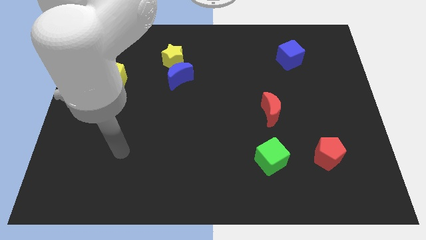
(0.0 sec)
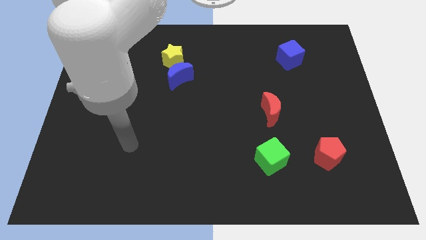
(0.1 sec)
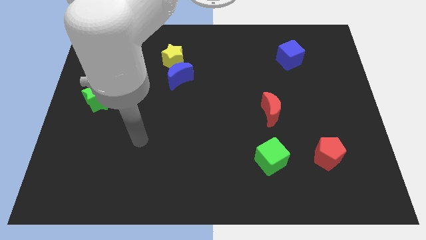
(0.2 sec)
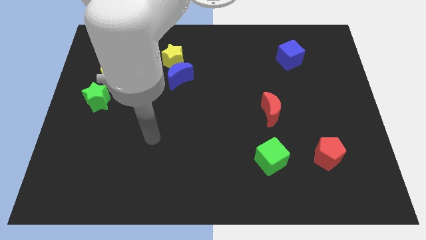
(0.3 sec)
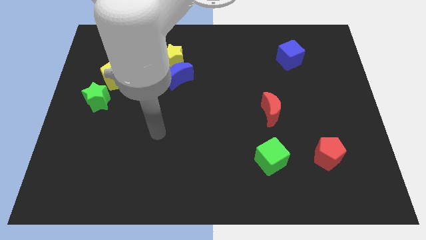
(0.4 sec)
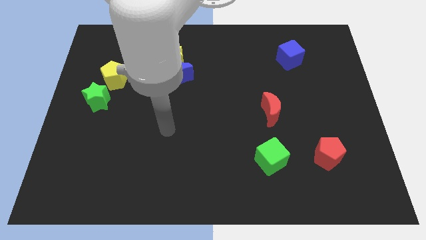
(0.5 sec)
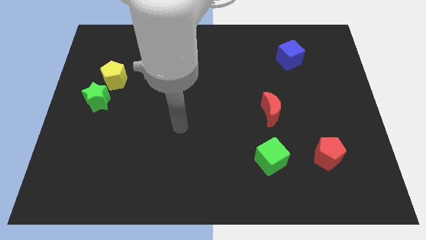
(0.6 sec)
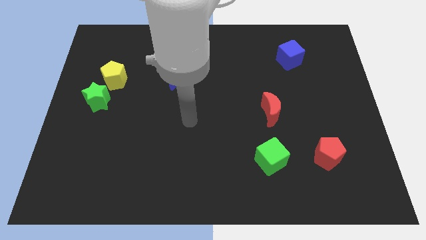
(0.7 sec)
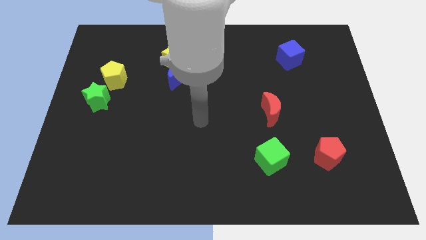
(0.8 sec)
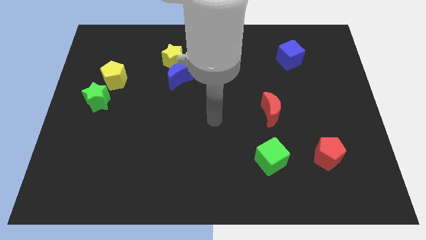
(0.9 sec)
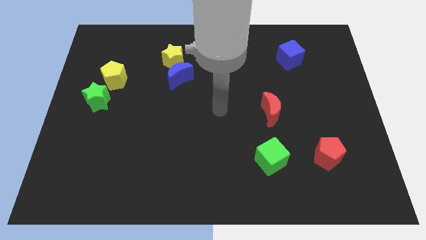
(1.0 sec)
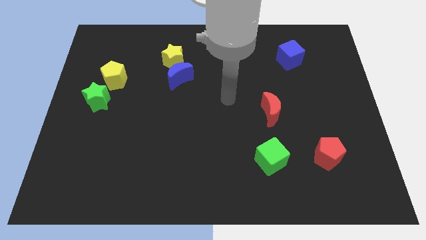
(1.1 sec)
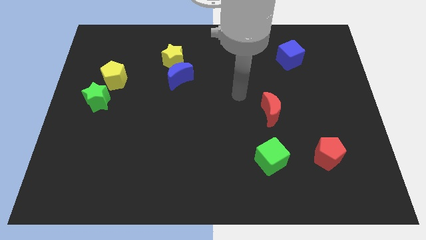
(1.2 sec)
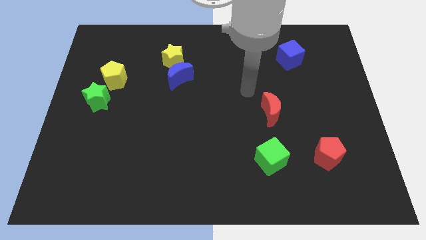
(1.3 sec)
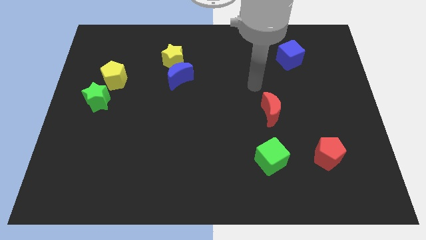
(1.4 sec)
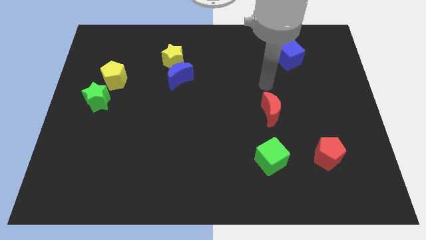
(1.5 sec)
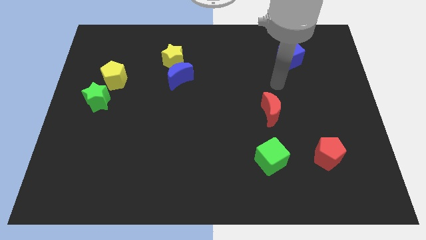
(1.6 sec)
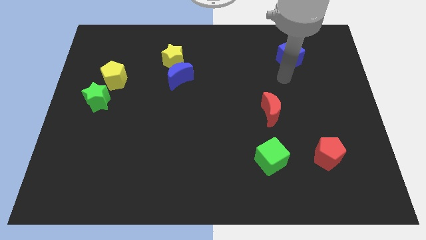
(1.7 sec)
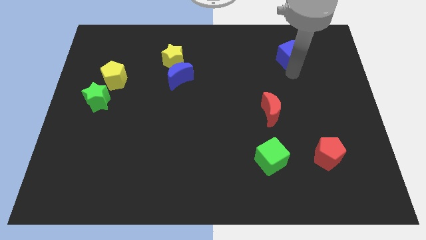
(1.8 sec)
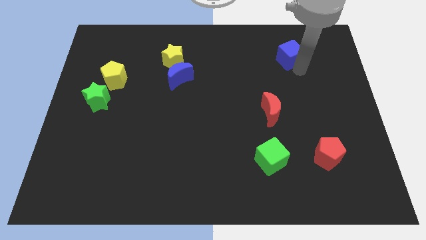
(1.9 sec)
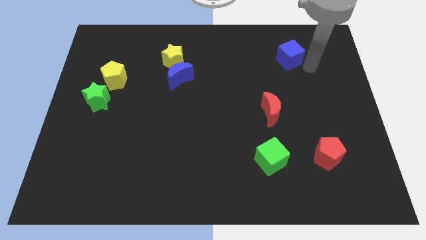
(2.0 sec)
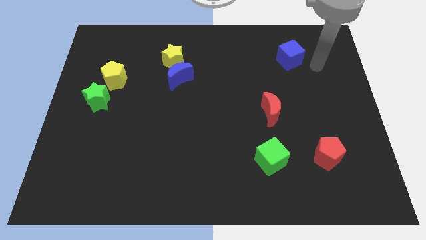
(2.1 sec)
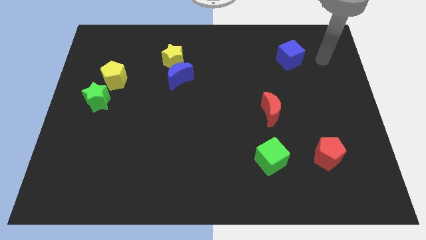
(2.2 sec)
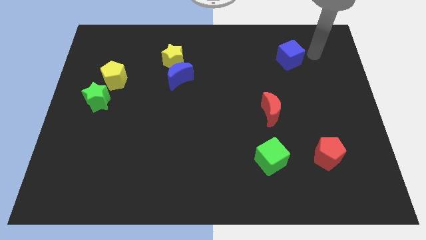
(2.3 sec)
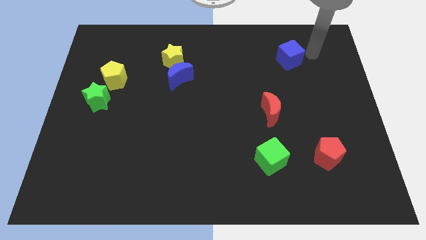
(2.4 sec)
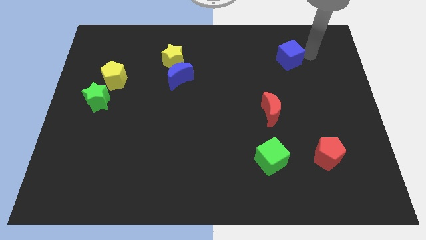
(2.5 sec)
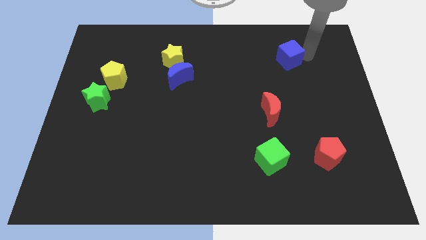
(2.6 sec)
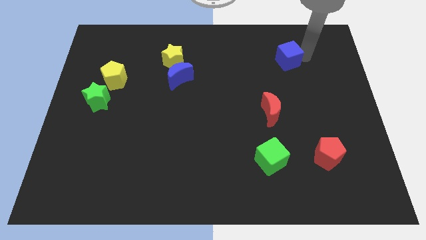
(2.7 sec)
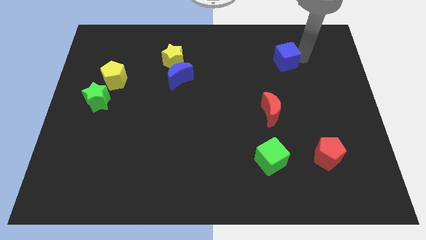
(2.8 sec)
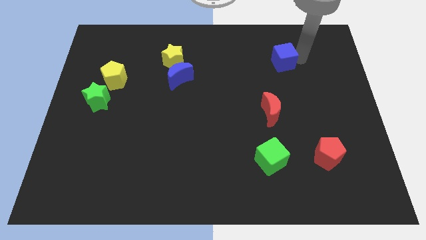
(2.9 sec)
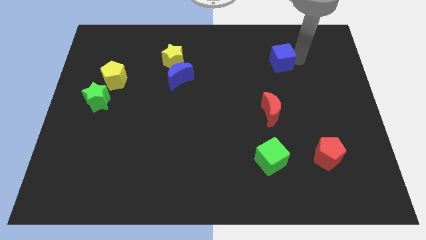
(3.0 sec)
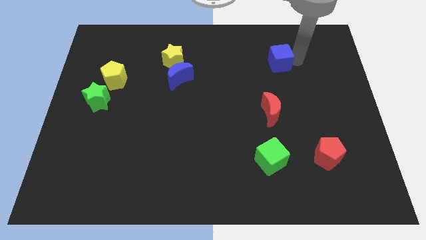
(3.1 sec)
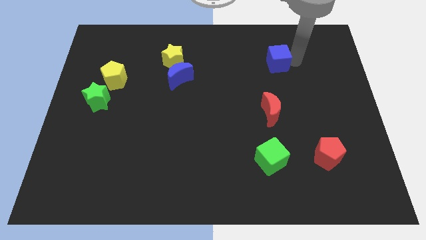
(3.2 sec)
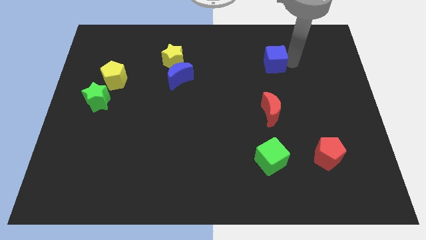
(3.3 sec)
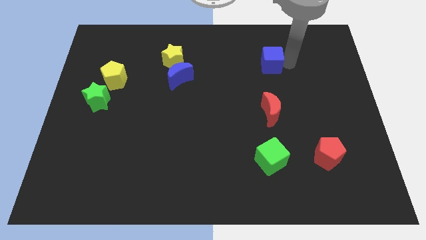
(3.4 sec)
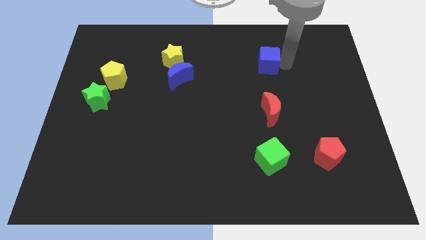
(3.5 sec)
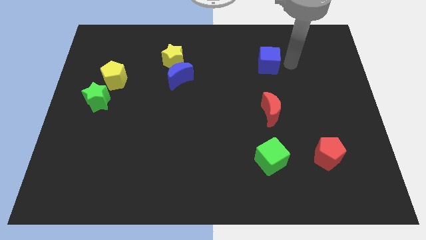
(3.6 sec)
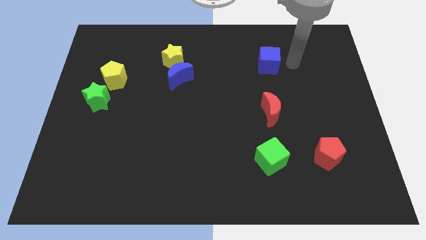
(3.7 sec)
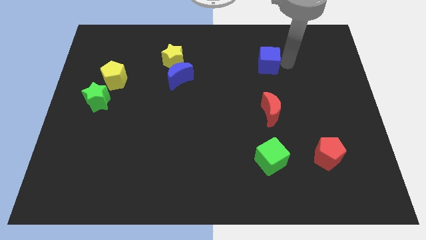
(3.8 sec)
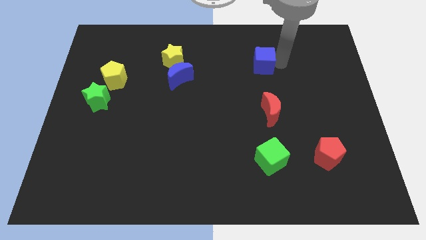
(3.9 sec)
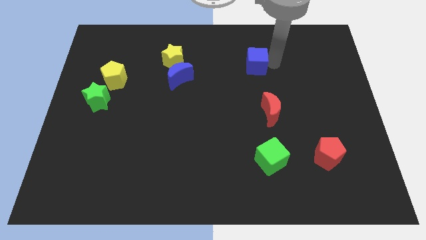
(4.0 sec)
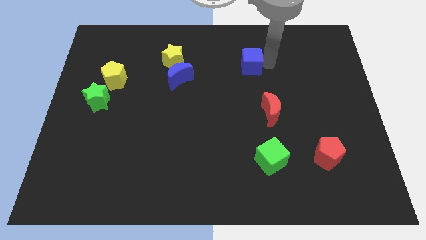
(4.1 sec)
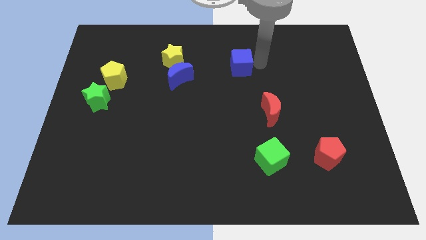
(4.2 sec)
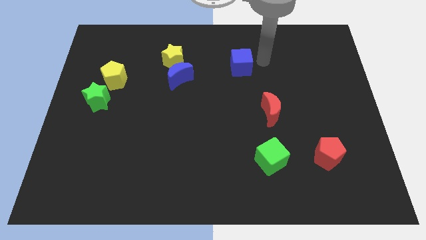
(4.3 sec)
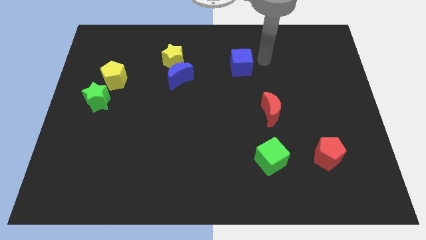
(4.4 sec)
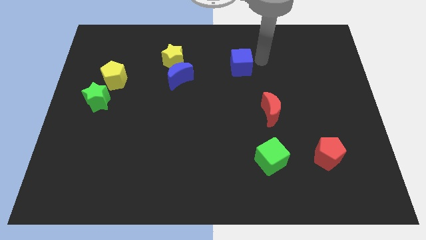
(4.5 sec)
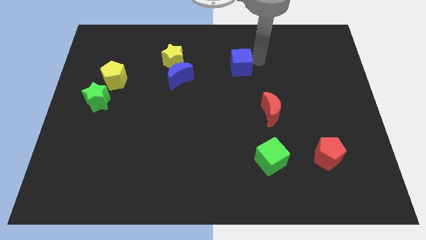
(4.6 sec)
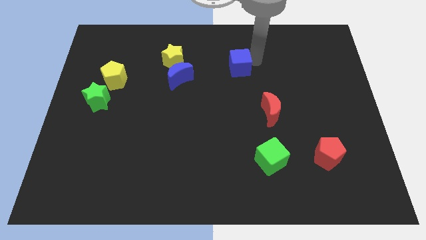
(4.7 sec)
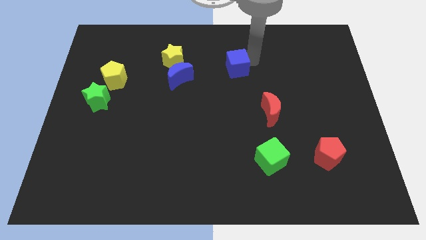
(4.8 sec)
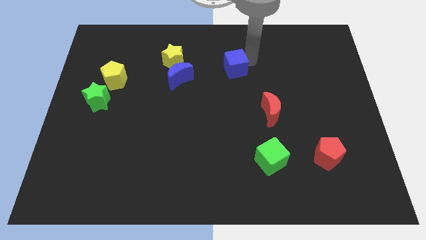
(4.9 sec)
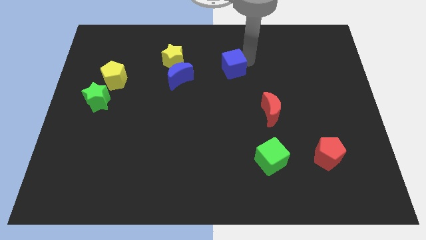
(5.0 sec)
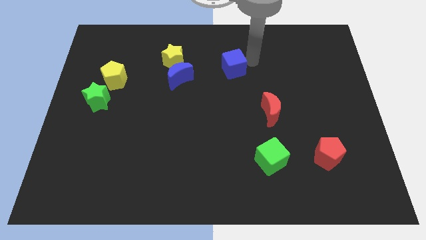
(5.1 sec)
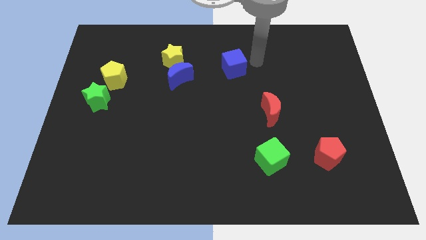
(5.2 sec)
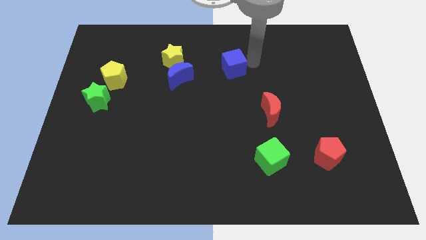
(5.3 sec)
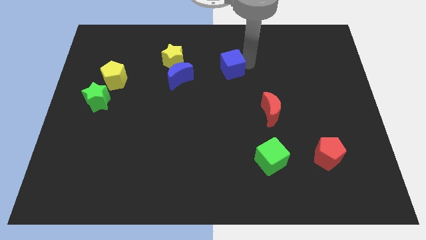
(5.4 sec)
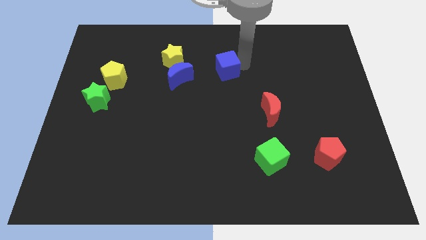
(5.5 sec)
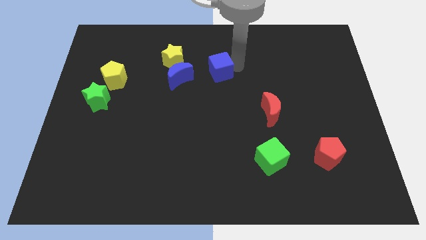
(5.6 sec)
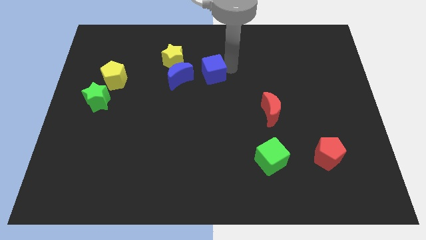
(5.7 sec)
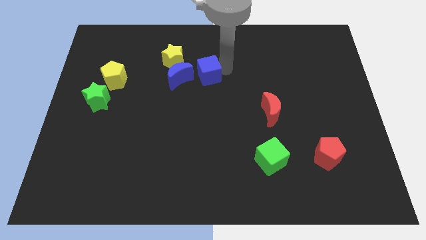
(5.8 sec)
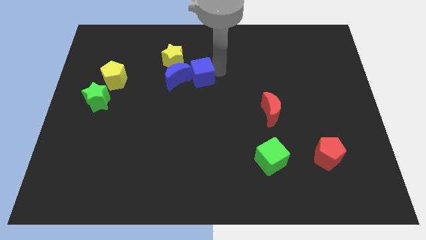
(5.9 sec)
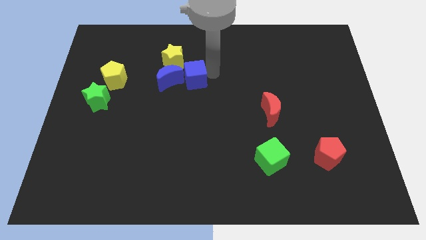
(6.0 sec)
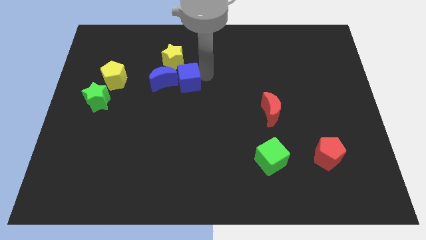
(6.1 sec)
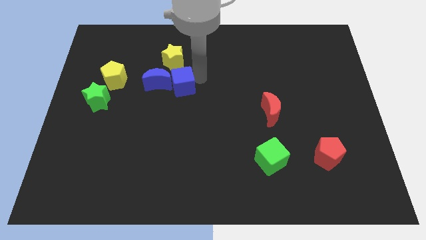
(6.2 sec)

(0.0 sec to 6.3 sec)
slide the blue cube towards the blue moon

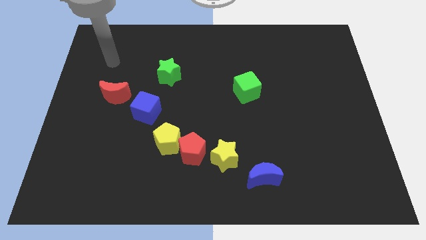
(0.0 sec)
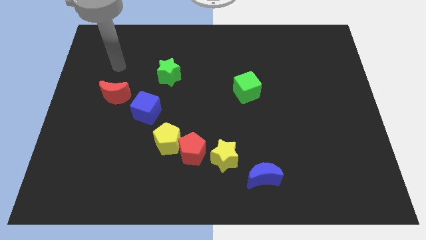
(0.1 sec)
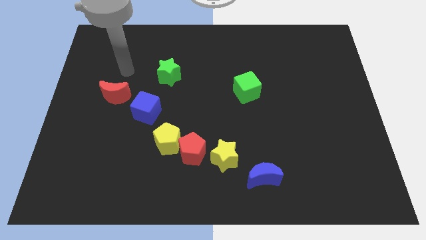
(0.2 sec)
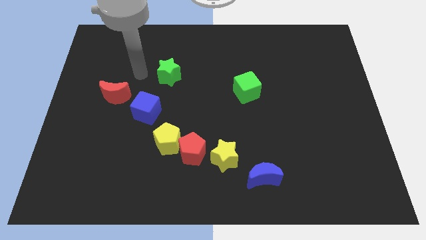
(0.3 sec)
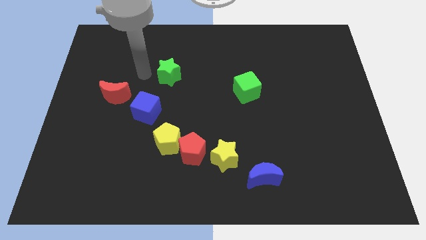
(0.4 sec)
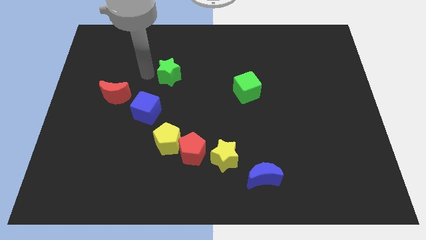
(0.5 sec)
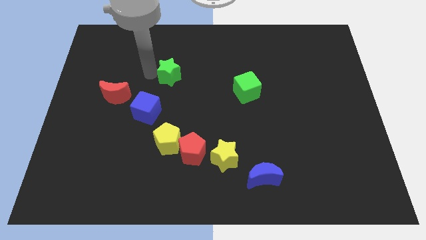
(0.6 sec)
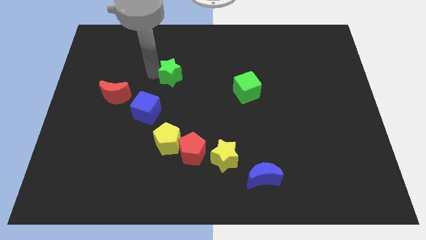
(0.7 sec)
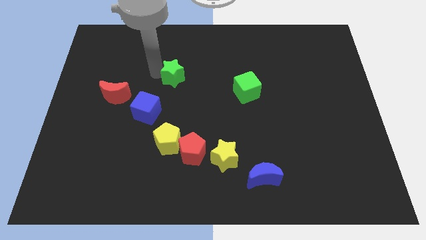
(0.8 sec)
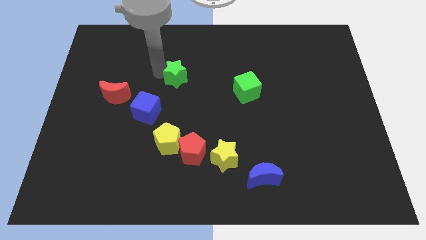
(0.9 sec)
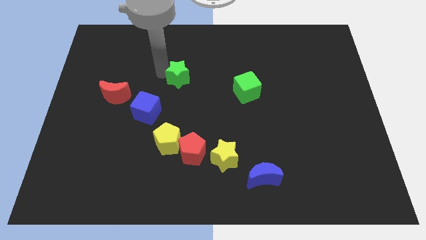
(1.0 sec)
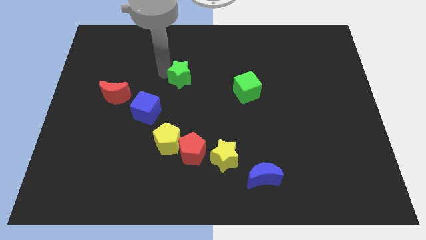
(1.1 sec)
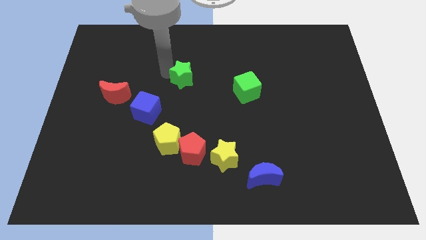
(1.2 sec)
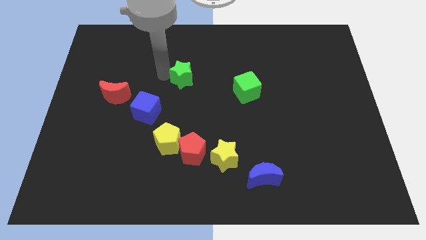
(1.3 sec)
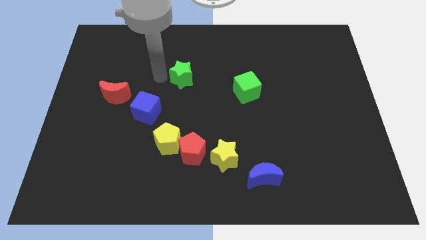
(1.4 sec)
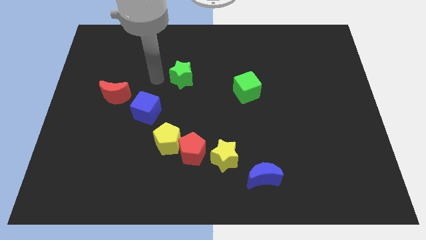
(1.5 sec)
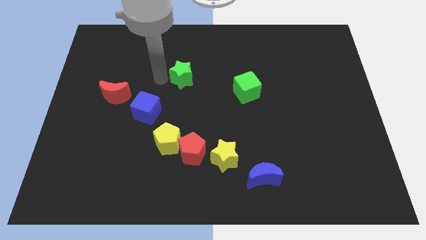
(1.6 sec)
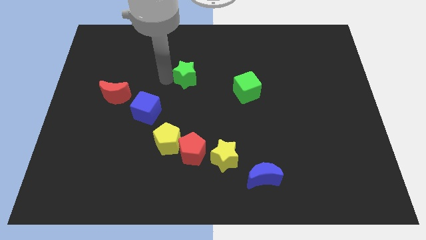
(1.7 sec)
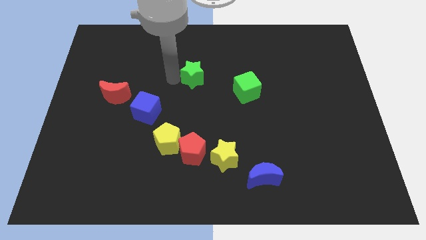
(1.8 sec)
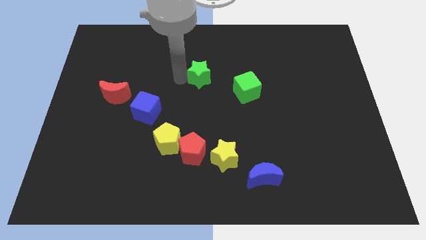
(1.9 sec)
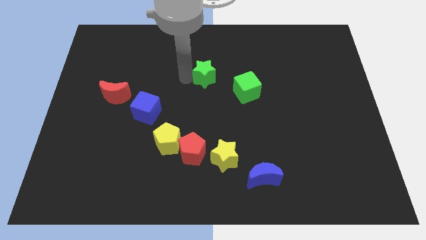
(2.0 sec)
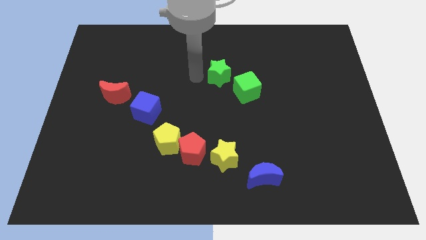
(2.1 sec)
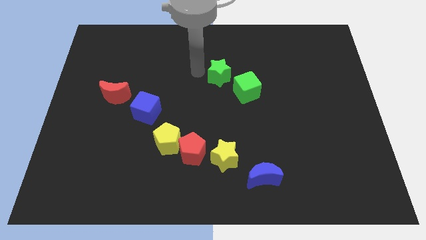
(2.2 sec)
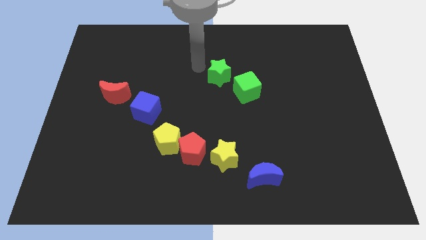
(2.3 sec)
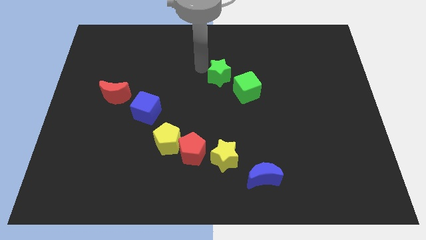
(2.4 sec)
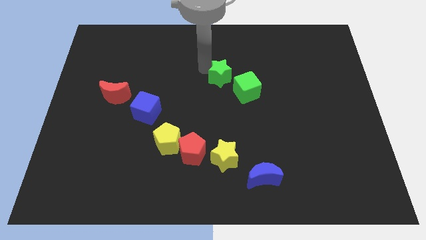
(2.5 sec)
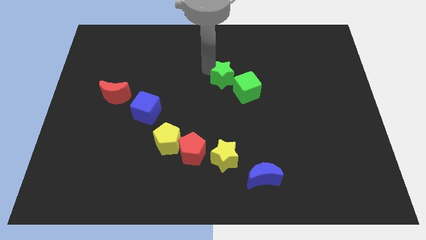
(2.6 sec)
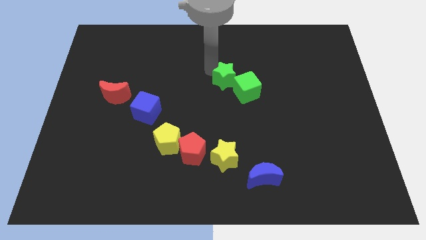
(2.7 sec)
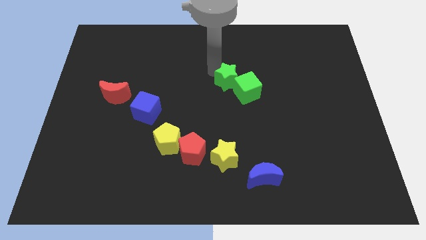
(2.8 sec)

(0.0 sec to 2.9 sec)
slide the green star towards the green cube
